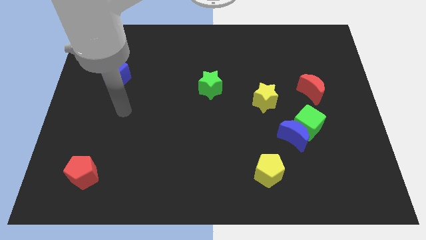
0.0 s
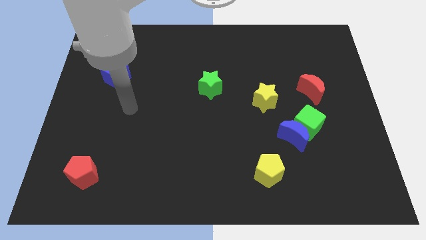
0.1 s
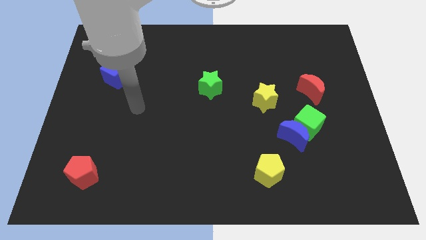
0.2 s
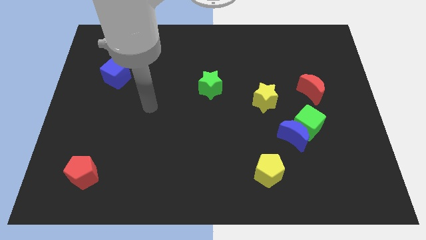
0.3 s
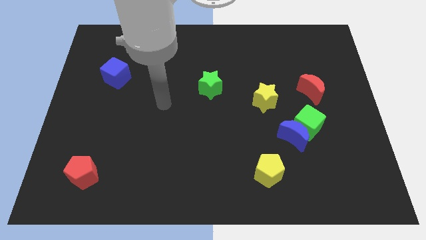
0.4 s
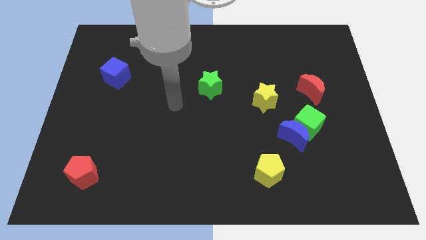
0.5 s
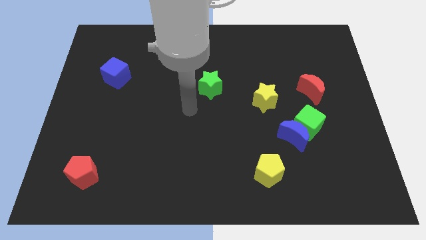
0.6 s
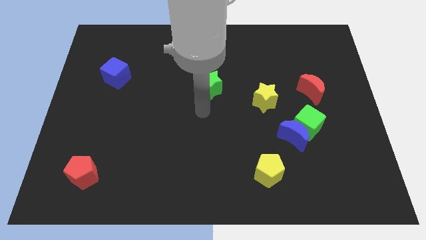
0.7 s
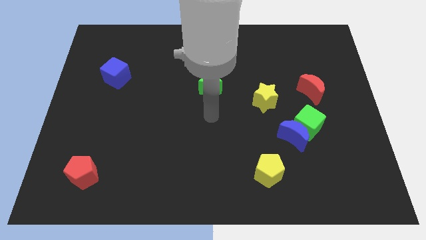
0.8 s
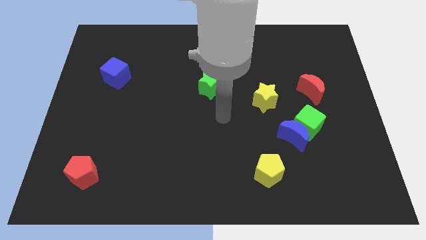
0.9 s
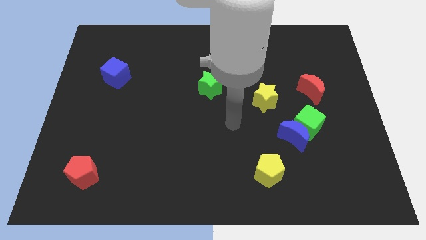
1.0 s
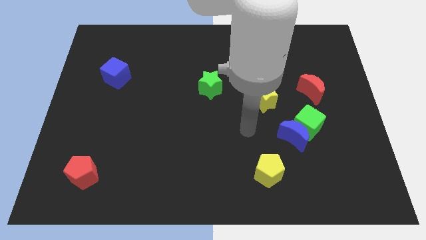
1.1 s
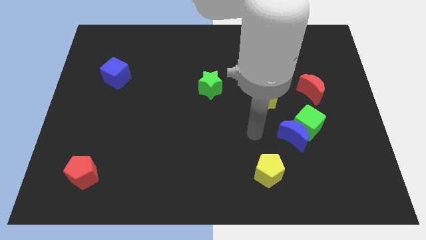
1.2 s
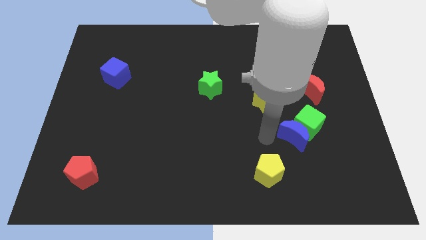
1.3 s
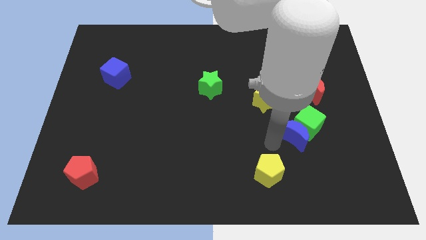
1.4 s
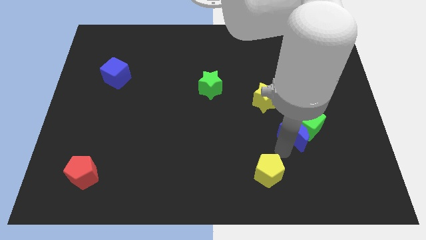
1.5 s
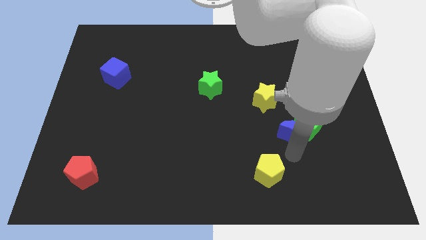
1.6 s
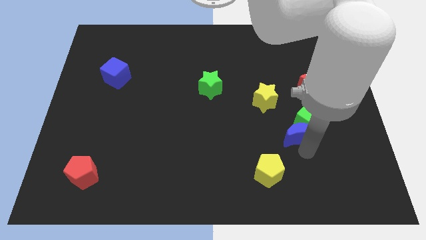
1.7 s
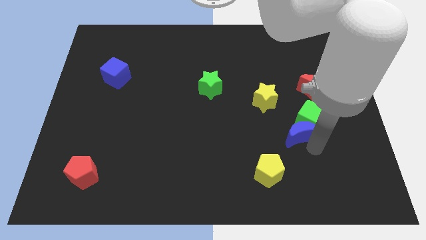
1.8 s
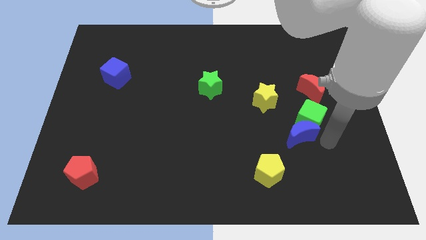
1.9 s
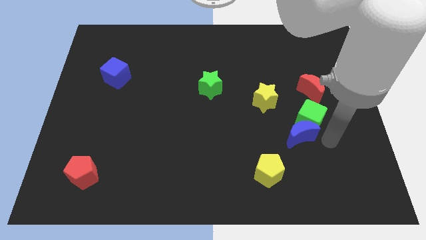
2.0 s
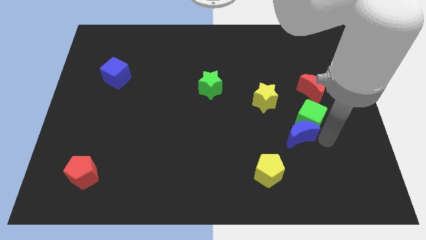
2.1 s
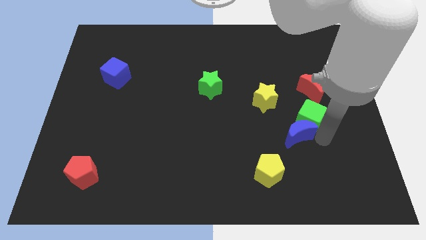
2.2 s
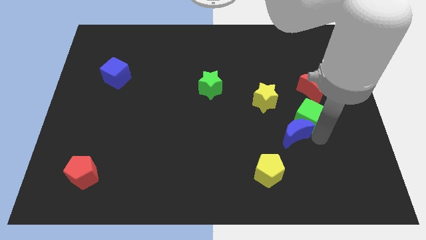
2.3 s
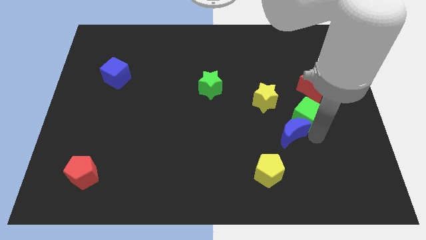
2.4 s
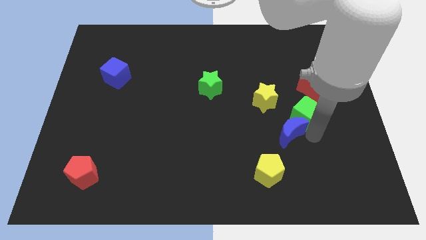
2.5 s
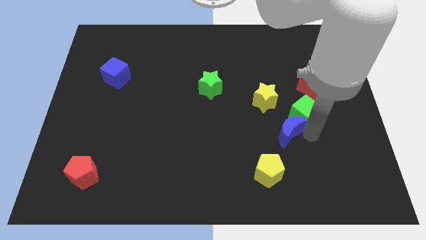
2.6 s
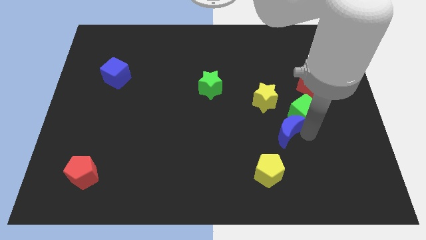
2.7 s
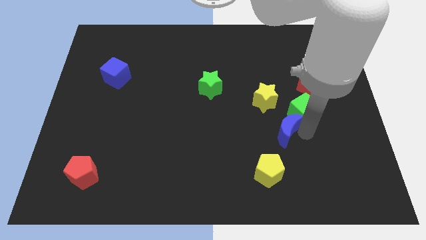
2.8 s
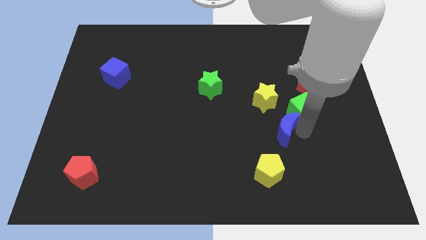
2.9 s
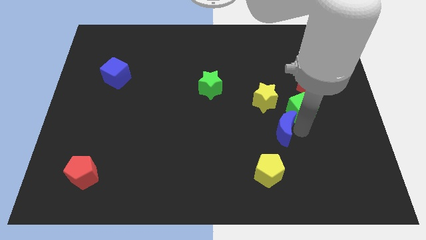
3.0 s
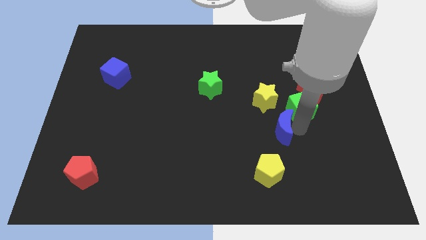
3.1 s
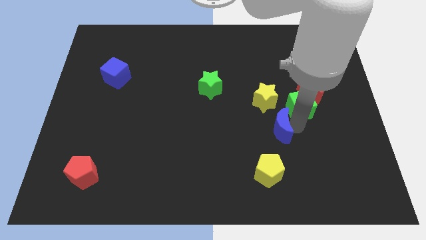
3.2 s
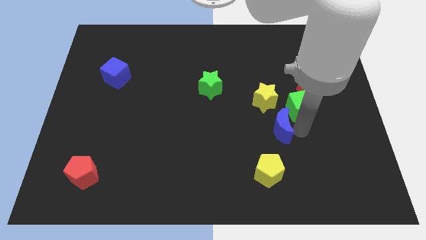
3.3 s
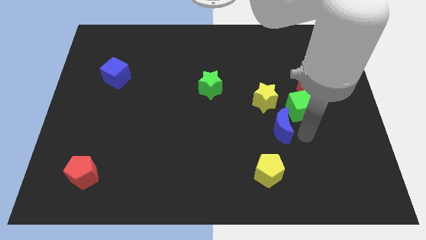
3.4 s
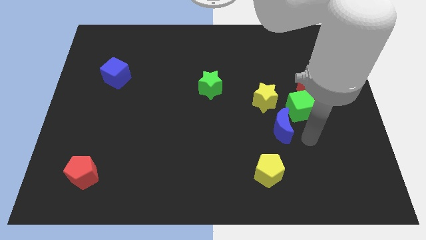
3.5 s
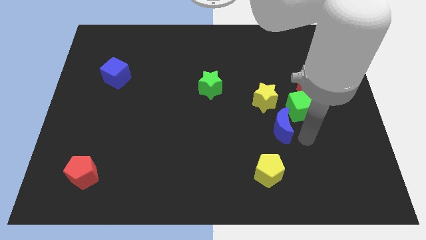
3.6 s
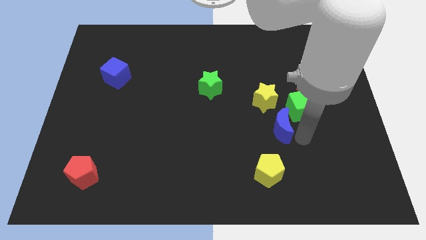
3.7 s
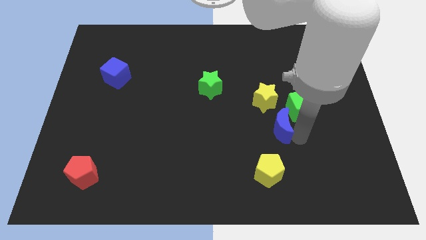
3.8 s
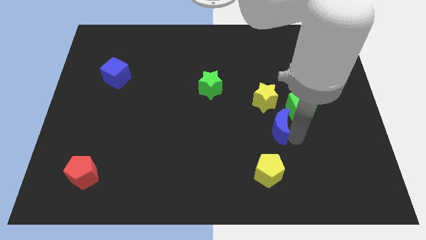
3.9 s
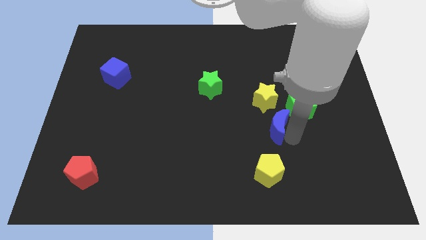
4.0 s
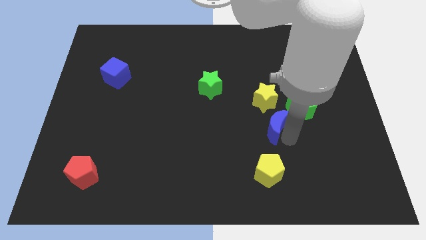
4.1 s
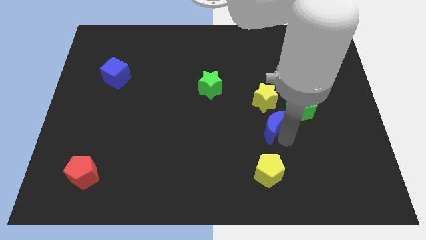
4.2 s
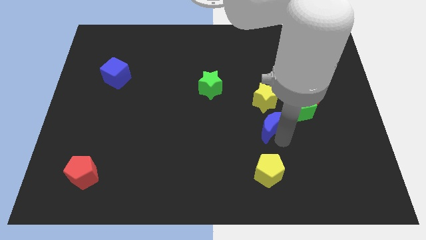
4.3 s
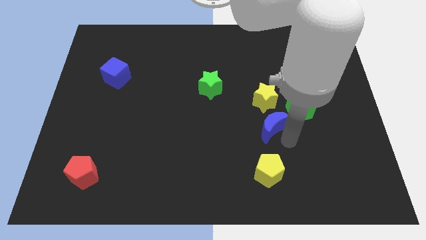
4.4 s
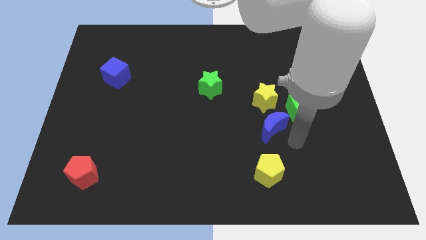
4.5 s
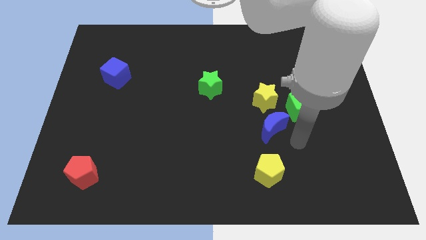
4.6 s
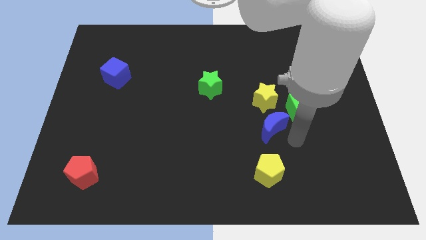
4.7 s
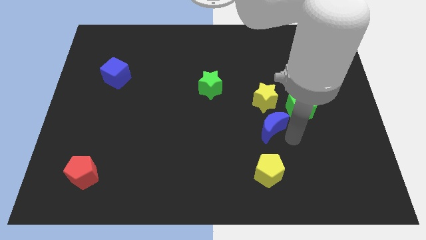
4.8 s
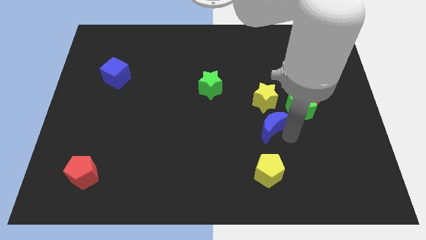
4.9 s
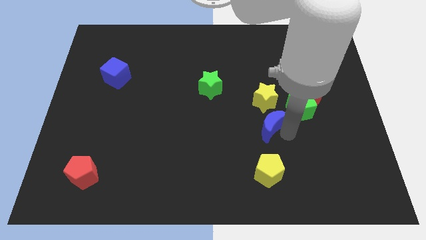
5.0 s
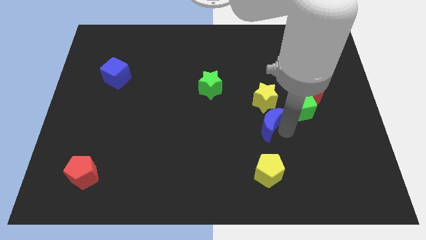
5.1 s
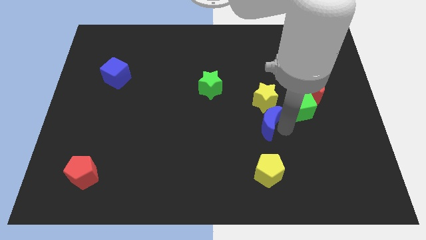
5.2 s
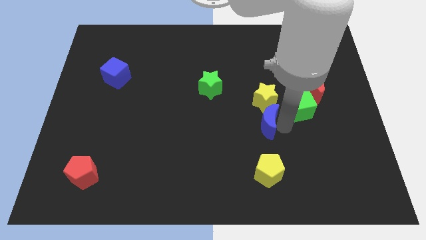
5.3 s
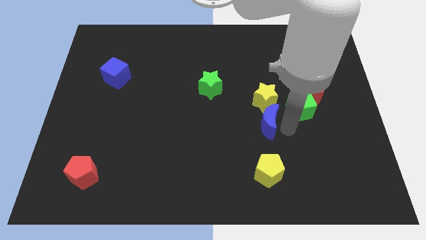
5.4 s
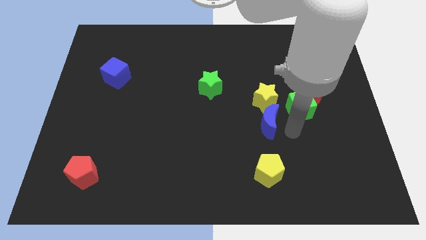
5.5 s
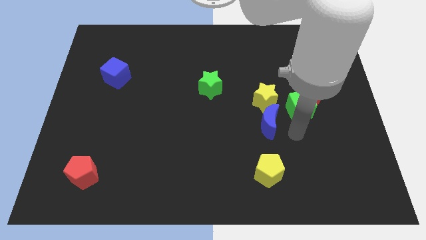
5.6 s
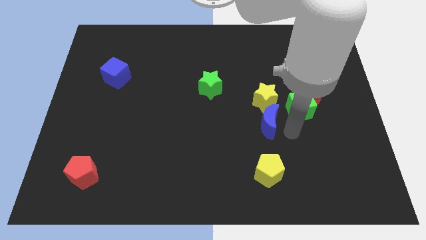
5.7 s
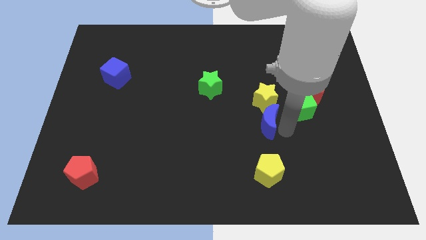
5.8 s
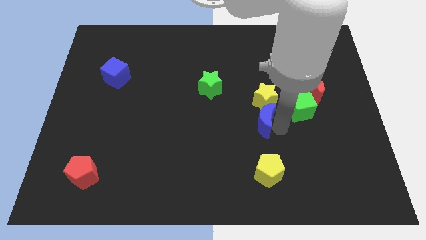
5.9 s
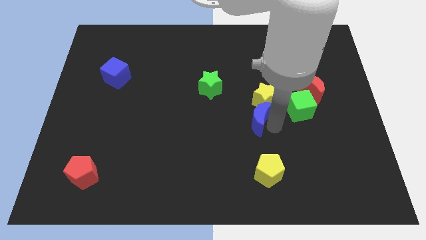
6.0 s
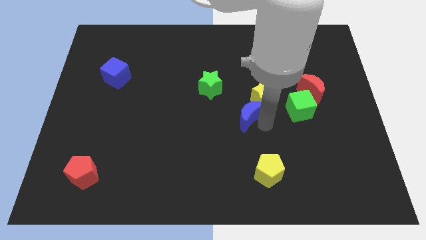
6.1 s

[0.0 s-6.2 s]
put the blue moon to the bottom right side of the green star

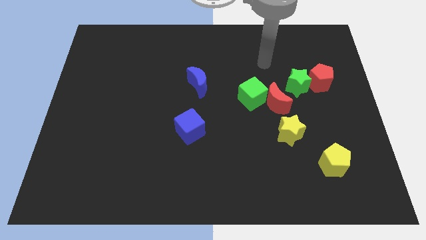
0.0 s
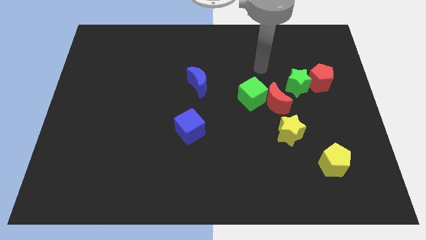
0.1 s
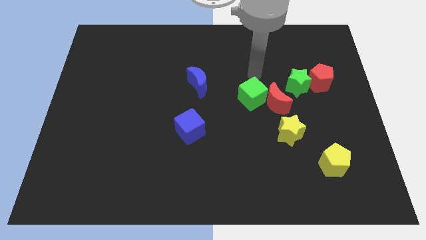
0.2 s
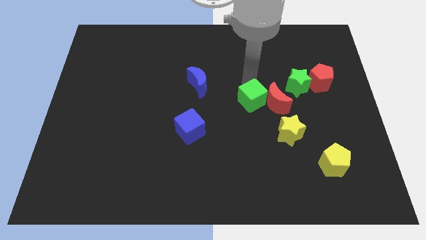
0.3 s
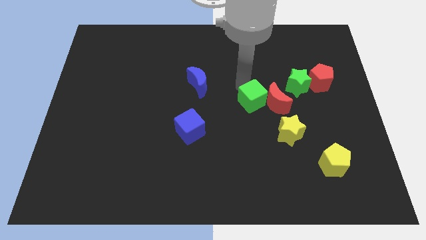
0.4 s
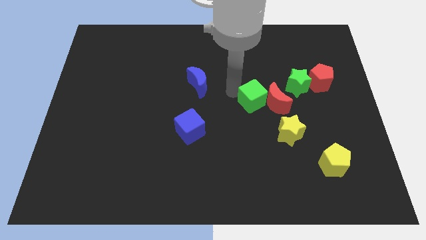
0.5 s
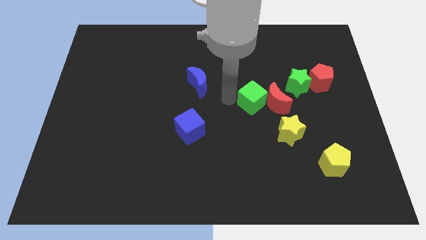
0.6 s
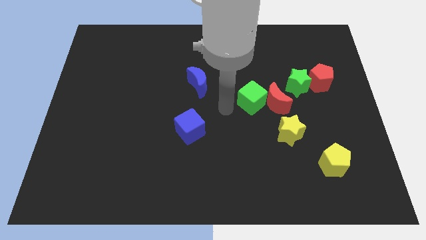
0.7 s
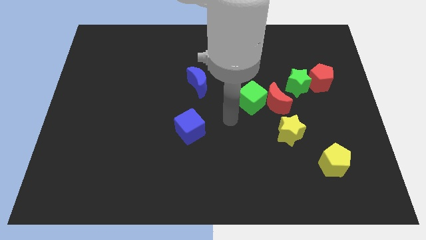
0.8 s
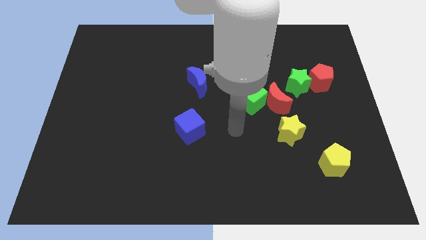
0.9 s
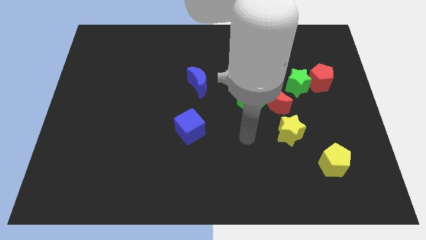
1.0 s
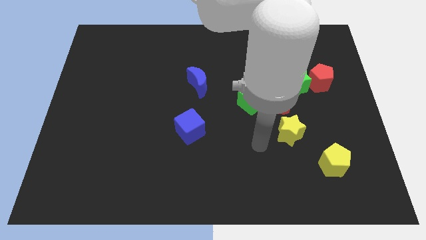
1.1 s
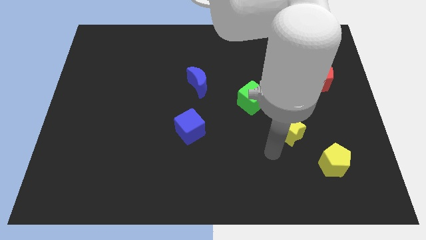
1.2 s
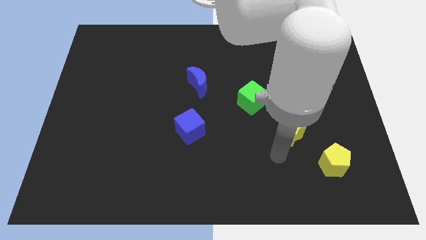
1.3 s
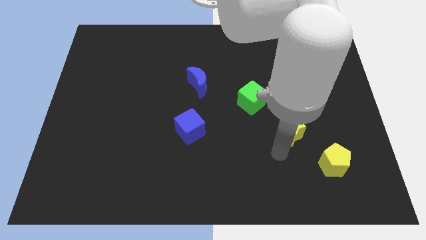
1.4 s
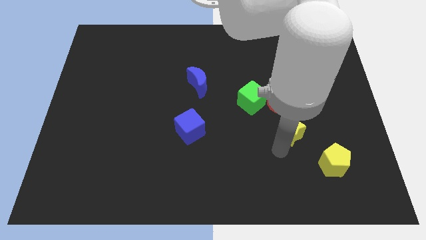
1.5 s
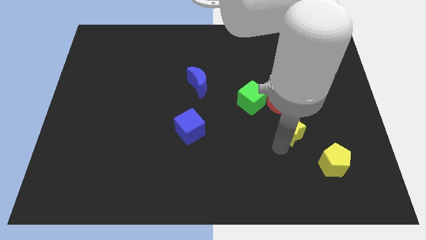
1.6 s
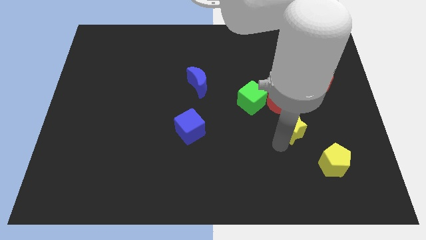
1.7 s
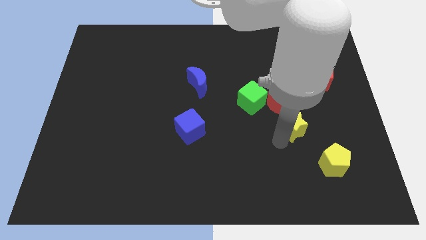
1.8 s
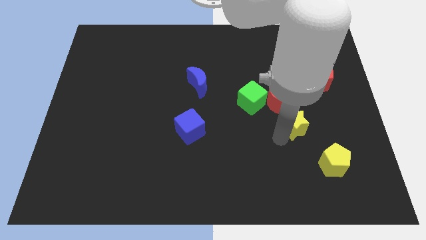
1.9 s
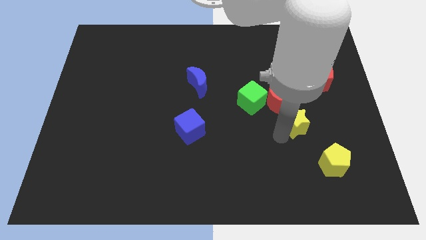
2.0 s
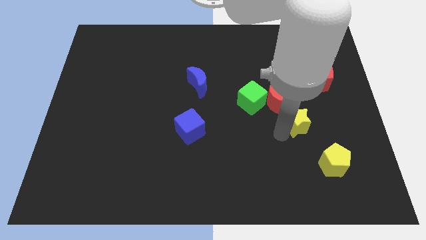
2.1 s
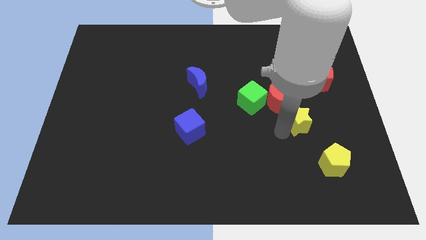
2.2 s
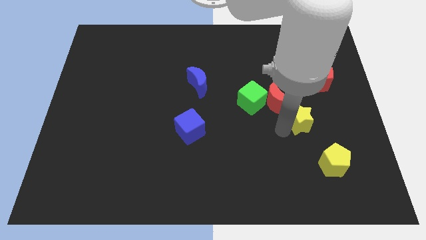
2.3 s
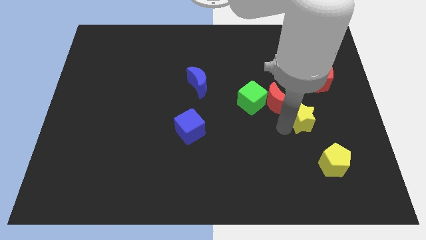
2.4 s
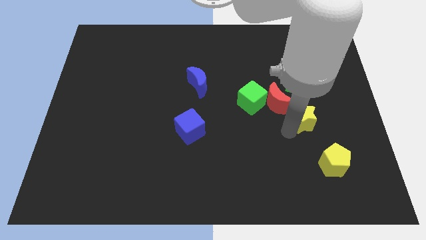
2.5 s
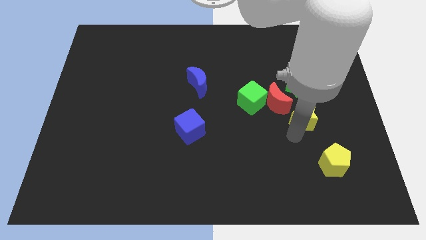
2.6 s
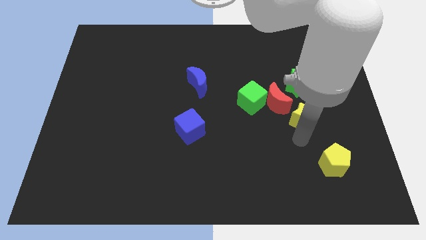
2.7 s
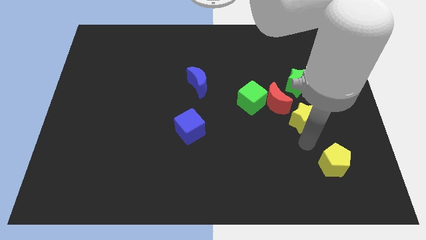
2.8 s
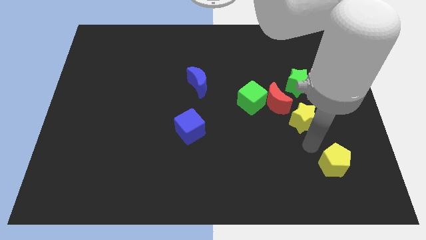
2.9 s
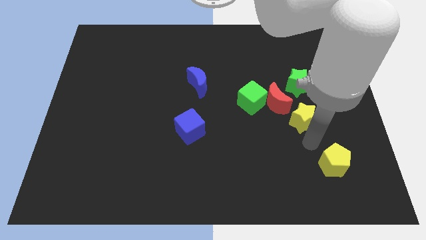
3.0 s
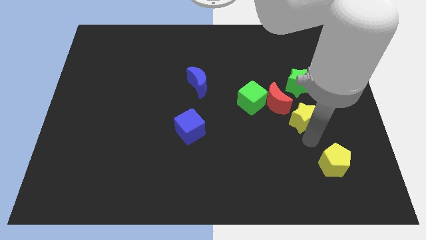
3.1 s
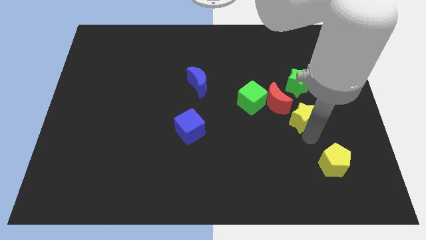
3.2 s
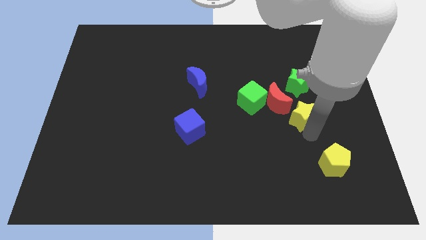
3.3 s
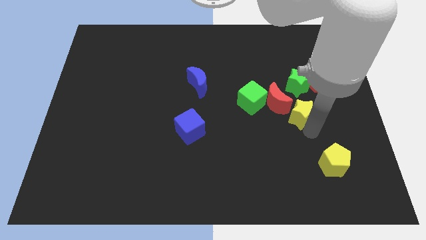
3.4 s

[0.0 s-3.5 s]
move the yellow star to the right of the green cube
